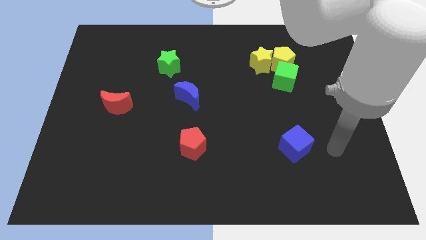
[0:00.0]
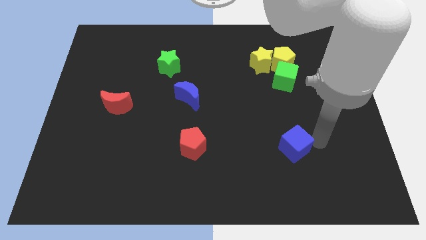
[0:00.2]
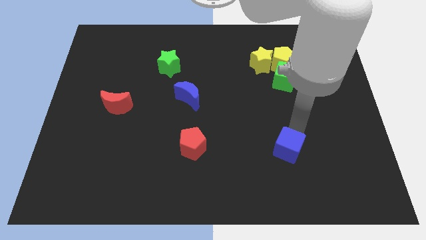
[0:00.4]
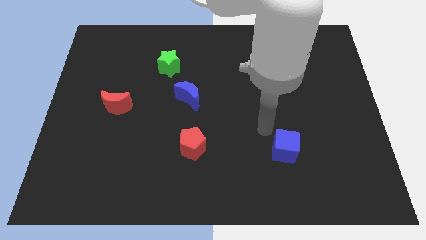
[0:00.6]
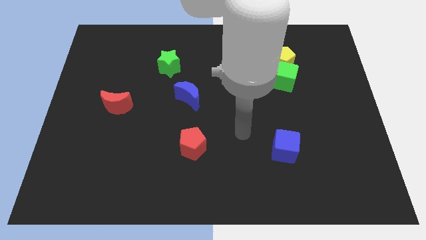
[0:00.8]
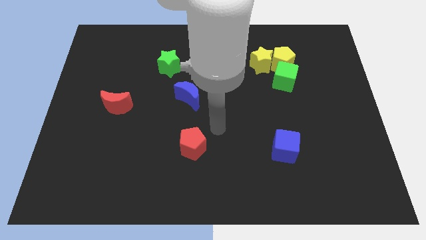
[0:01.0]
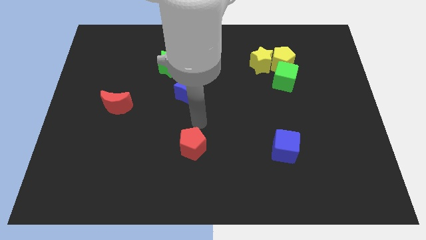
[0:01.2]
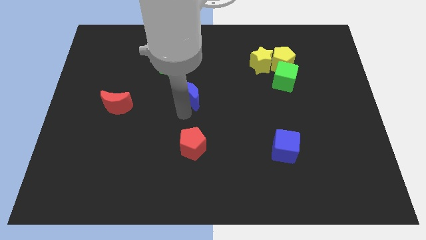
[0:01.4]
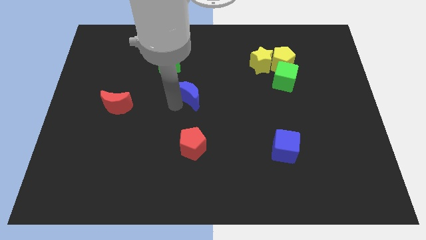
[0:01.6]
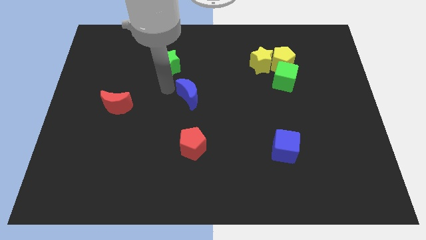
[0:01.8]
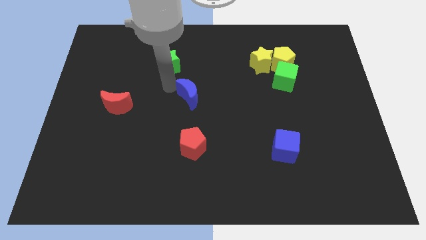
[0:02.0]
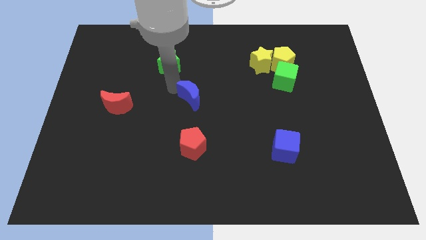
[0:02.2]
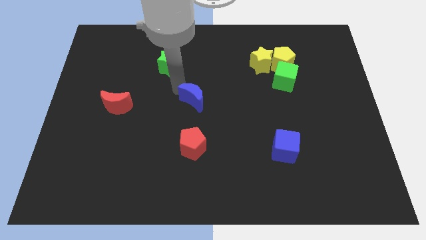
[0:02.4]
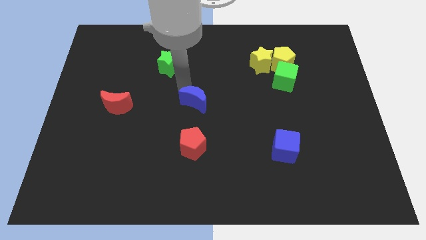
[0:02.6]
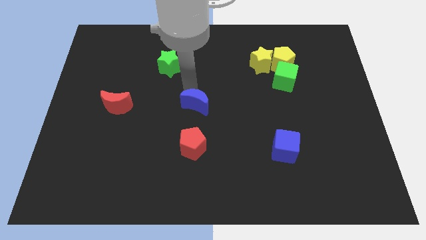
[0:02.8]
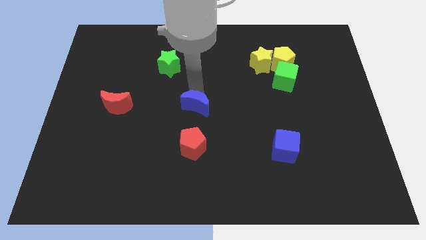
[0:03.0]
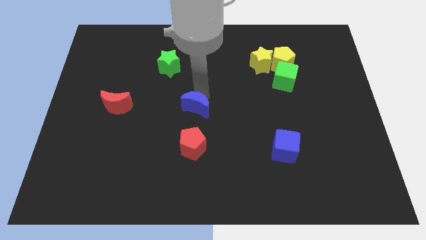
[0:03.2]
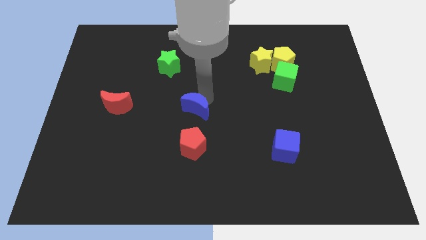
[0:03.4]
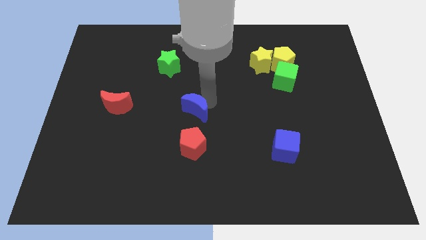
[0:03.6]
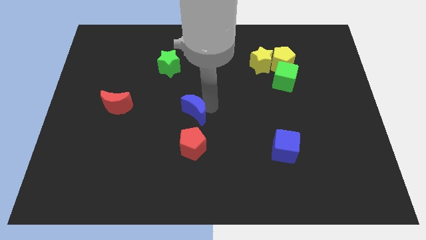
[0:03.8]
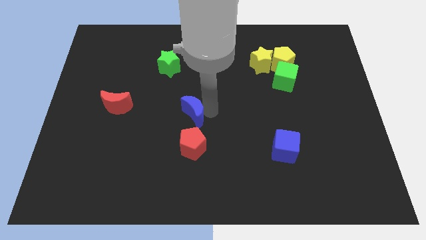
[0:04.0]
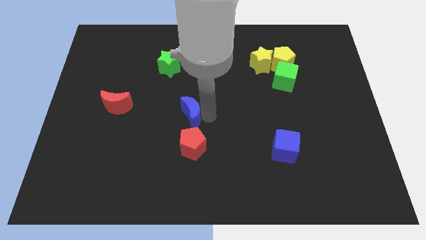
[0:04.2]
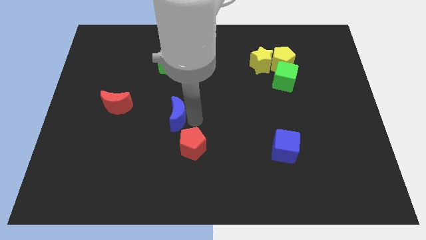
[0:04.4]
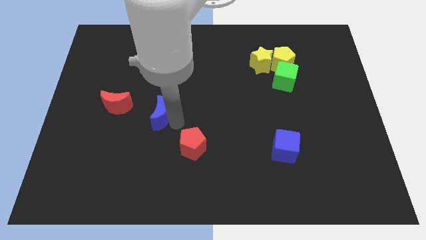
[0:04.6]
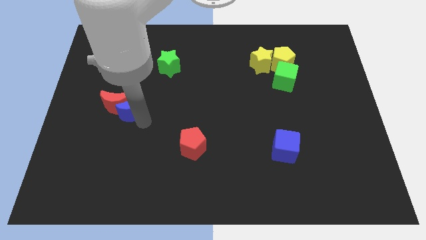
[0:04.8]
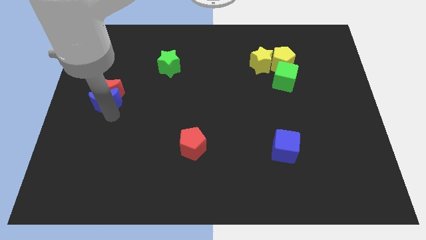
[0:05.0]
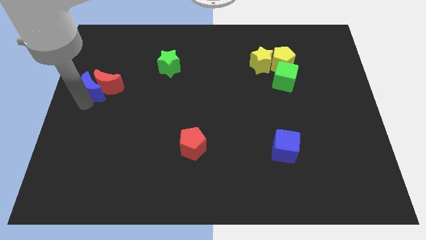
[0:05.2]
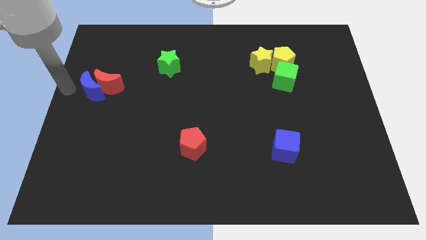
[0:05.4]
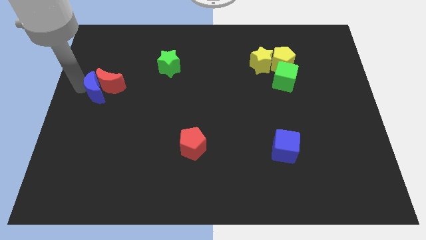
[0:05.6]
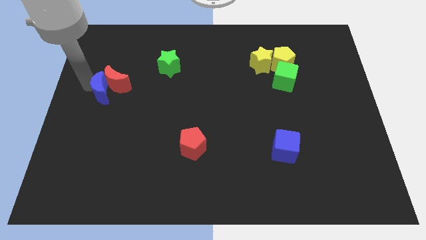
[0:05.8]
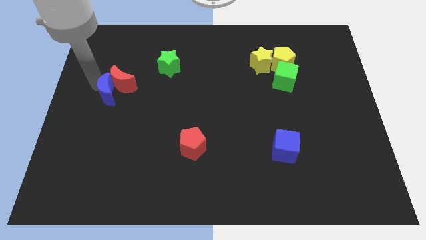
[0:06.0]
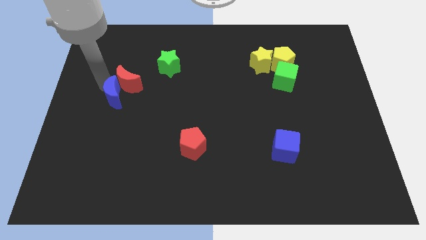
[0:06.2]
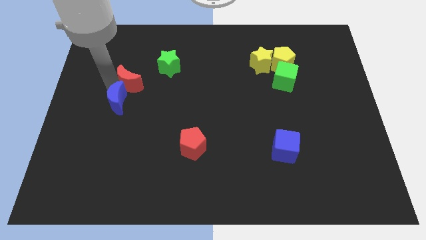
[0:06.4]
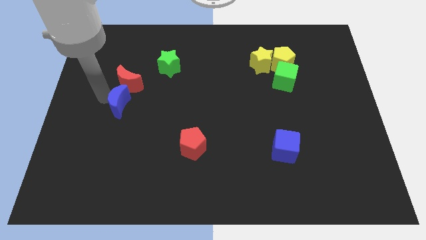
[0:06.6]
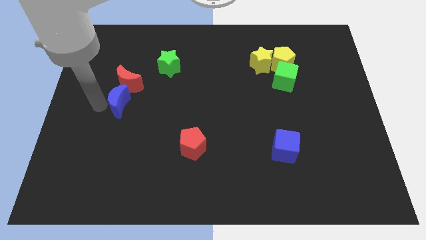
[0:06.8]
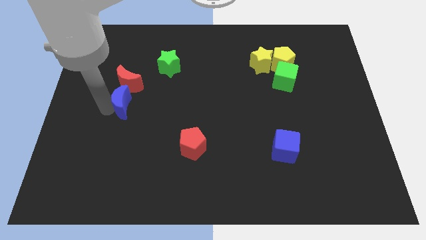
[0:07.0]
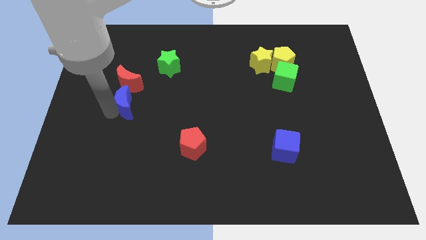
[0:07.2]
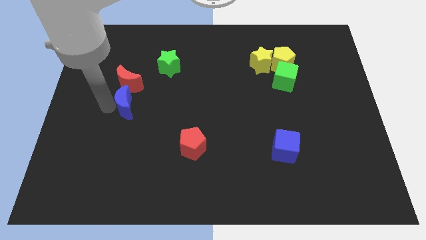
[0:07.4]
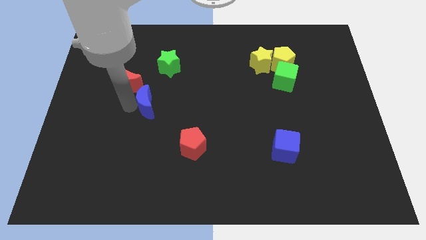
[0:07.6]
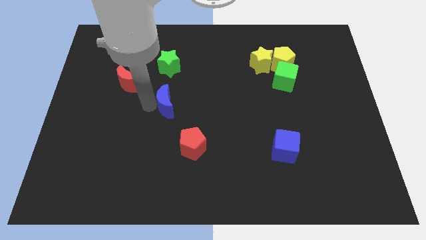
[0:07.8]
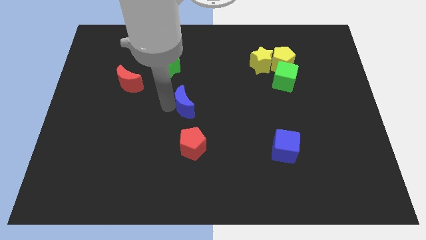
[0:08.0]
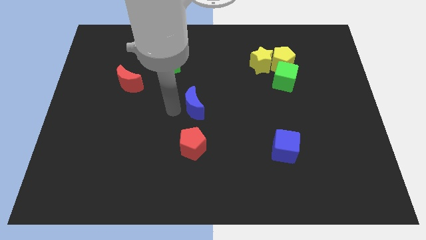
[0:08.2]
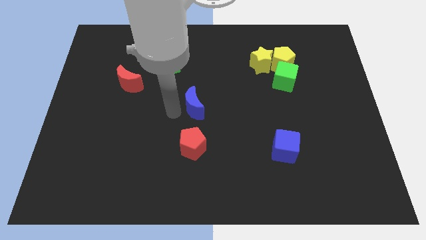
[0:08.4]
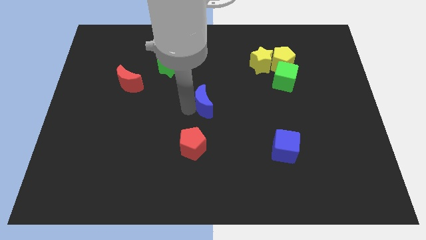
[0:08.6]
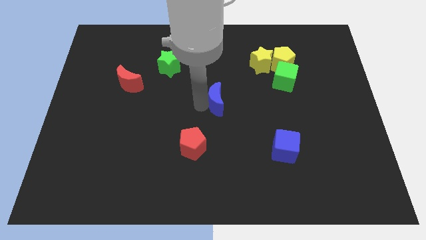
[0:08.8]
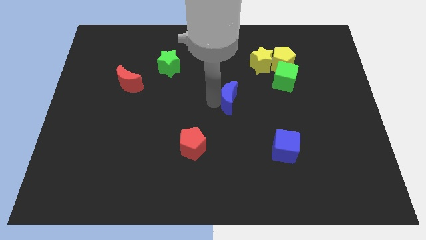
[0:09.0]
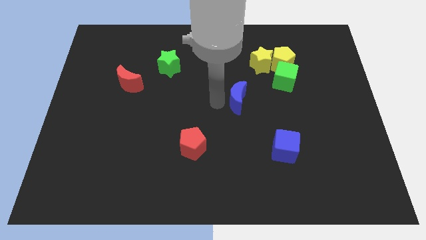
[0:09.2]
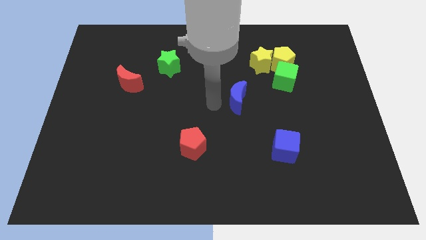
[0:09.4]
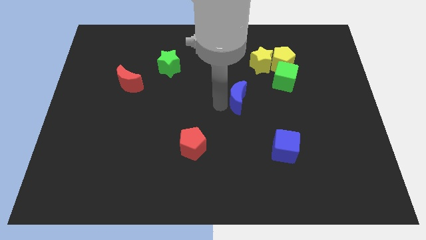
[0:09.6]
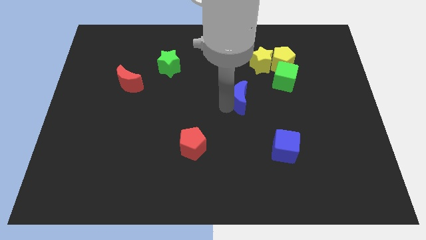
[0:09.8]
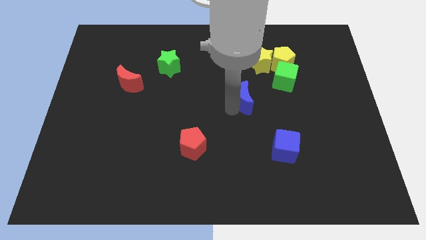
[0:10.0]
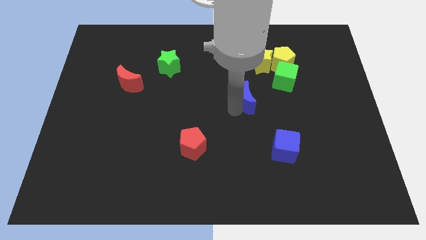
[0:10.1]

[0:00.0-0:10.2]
move the blue moon to the bottom left side of the green cube

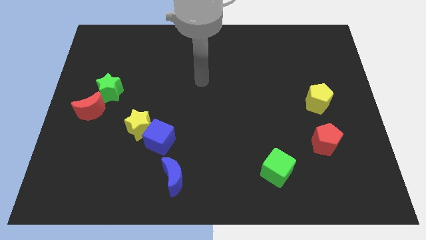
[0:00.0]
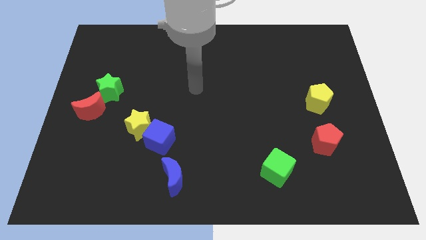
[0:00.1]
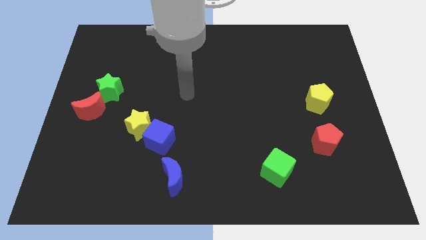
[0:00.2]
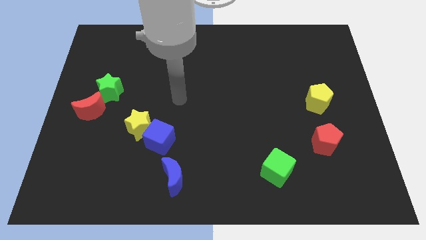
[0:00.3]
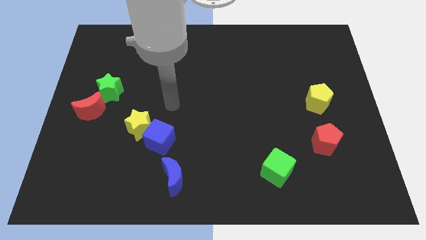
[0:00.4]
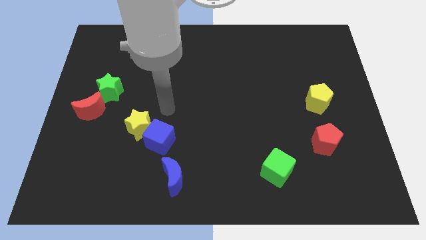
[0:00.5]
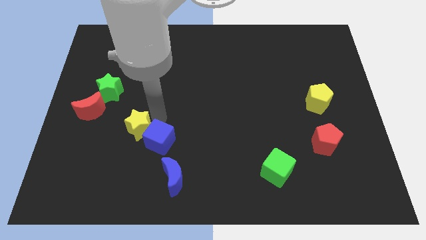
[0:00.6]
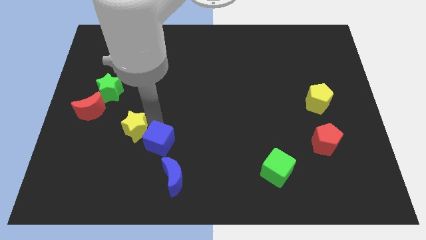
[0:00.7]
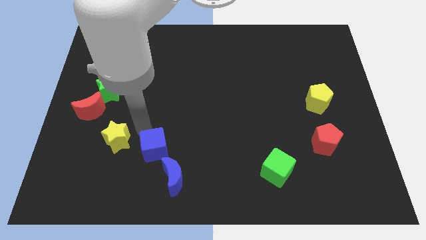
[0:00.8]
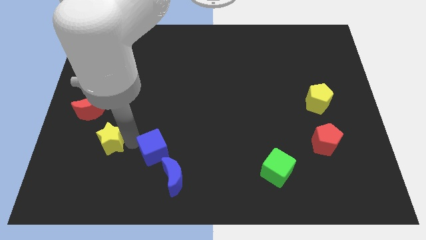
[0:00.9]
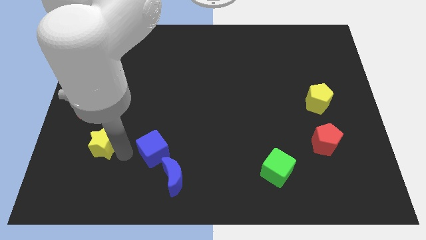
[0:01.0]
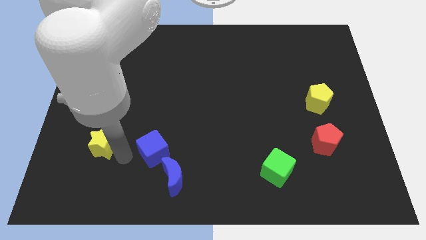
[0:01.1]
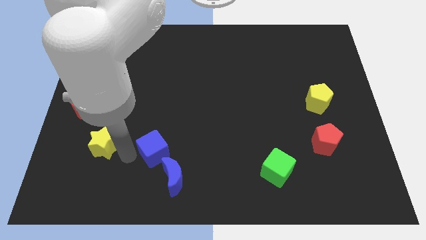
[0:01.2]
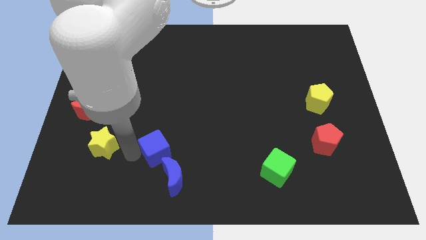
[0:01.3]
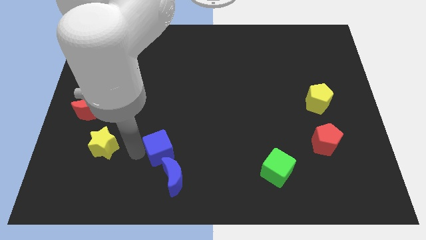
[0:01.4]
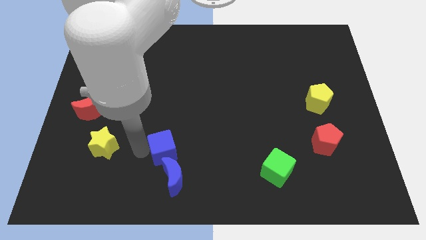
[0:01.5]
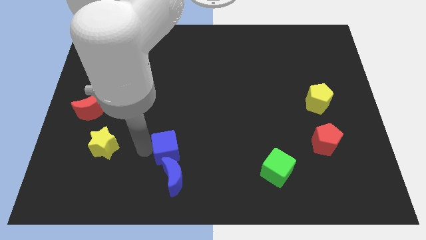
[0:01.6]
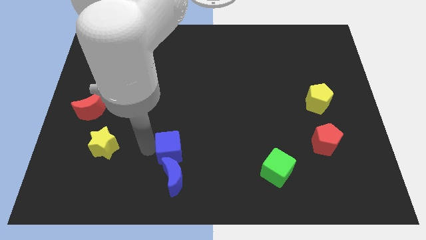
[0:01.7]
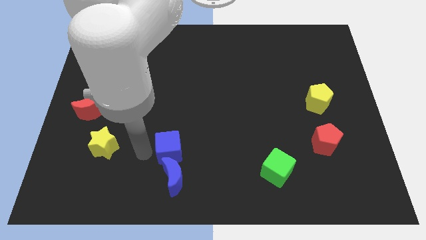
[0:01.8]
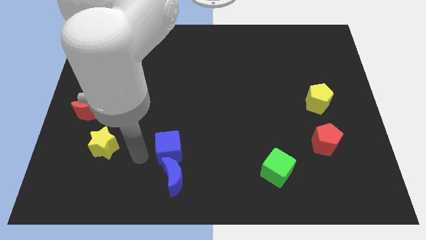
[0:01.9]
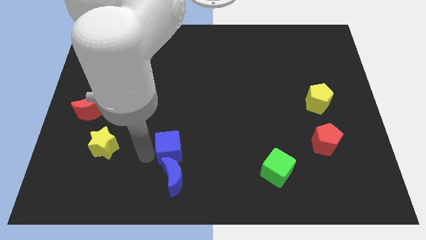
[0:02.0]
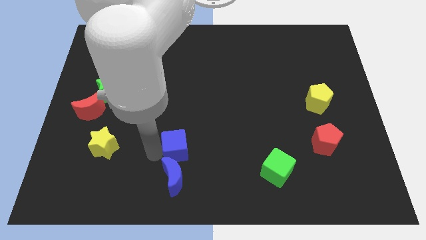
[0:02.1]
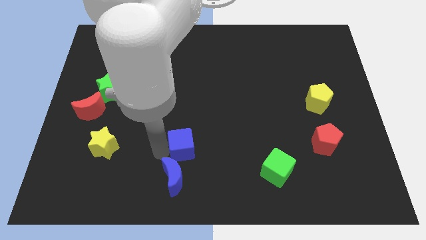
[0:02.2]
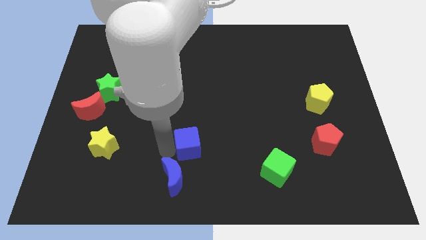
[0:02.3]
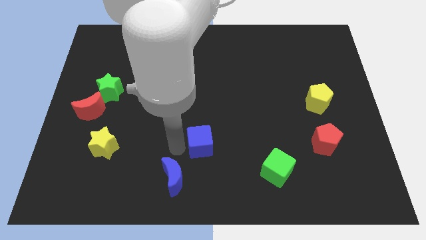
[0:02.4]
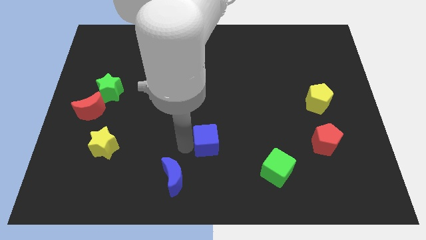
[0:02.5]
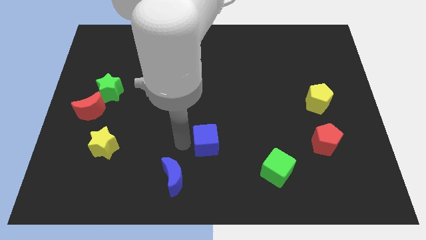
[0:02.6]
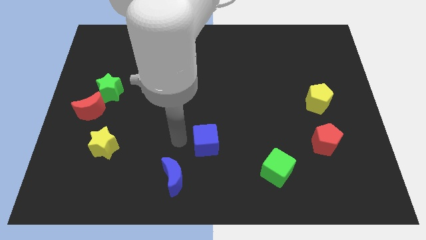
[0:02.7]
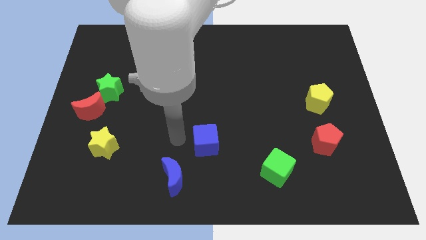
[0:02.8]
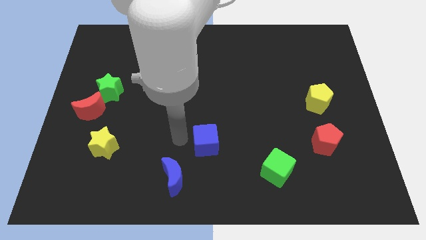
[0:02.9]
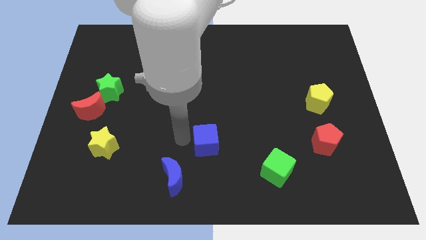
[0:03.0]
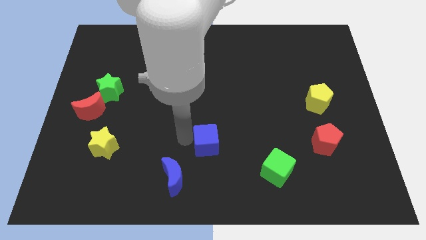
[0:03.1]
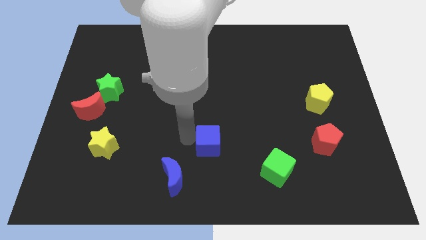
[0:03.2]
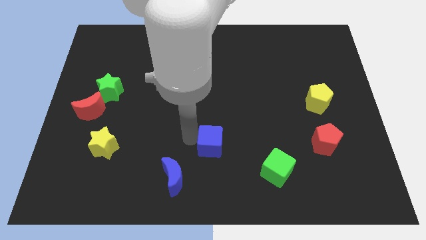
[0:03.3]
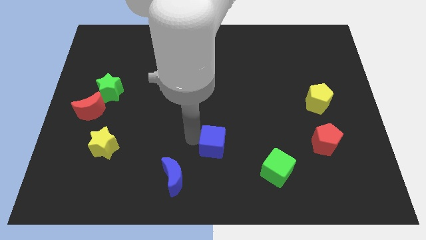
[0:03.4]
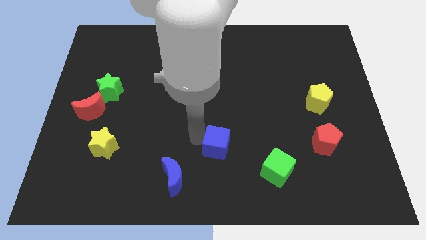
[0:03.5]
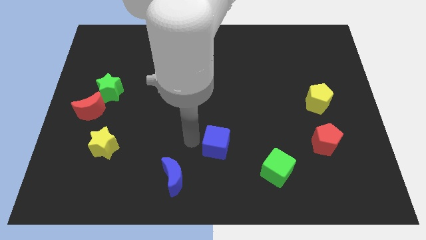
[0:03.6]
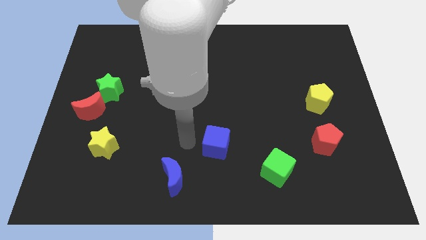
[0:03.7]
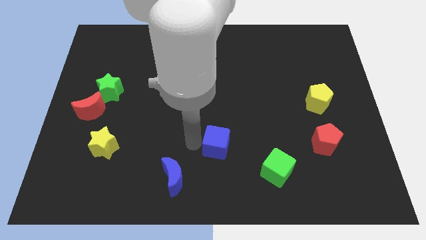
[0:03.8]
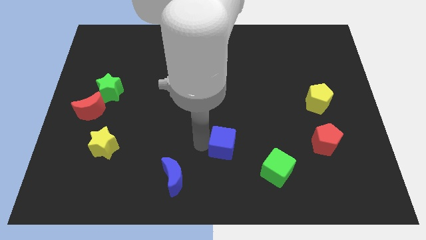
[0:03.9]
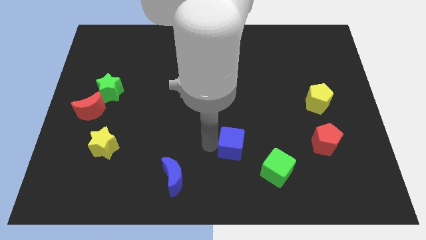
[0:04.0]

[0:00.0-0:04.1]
put the blue cube to the top left of the green cube
